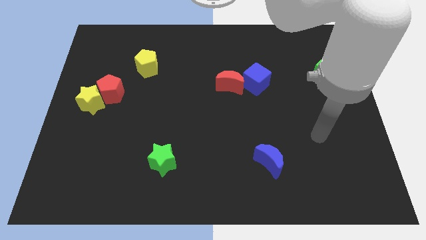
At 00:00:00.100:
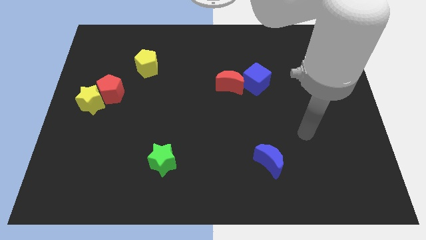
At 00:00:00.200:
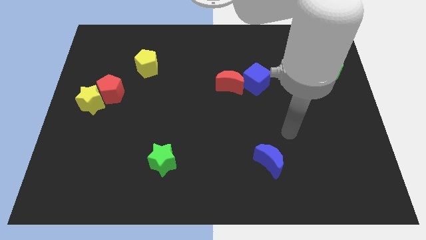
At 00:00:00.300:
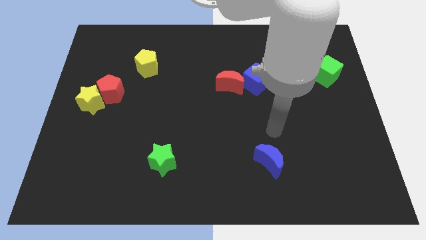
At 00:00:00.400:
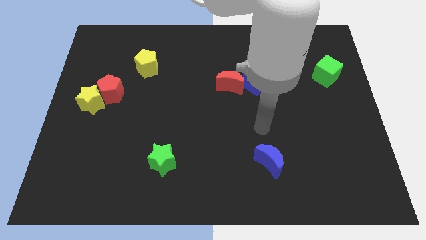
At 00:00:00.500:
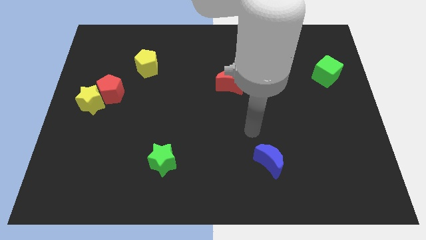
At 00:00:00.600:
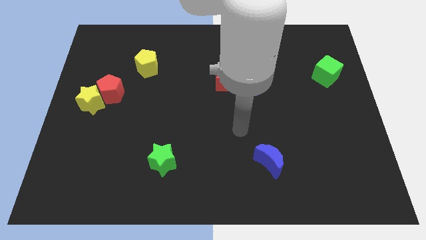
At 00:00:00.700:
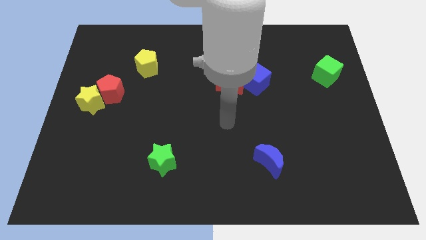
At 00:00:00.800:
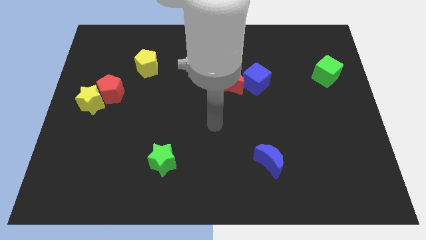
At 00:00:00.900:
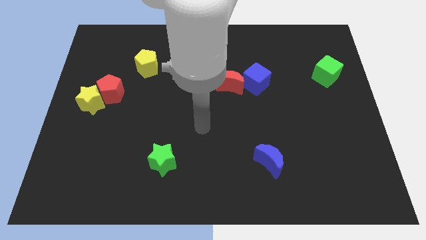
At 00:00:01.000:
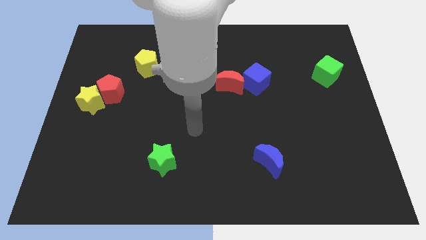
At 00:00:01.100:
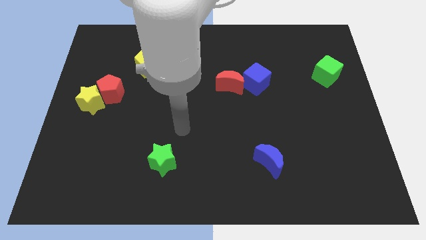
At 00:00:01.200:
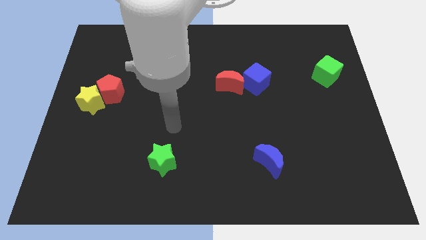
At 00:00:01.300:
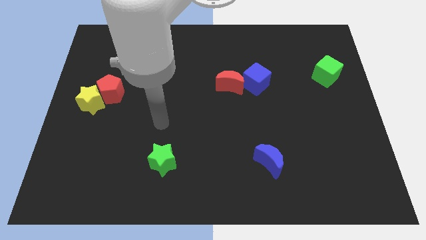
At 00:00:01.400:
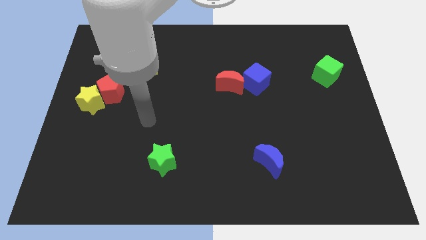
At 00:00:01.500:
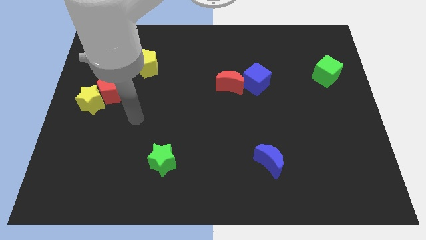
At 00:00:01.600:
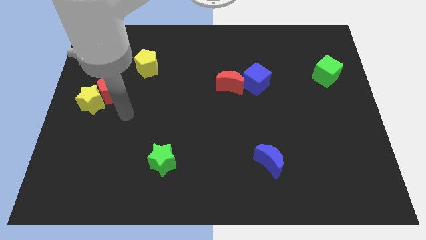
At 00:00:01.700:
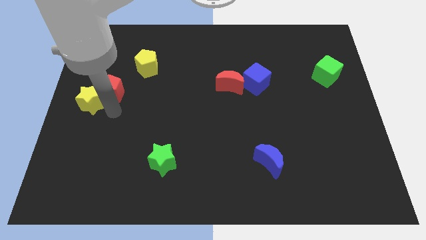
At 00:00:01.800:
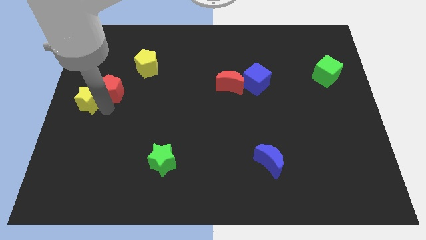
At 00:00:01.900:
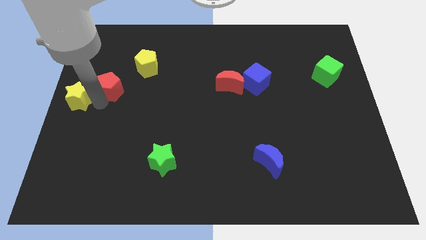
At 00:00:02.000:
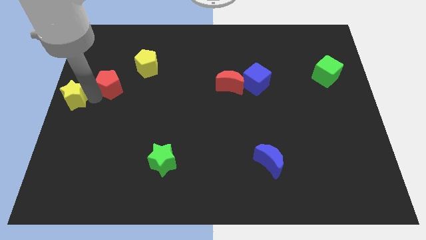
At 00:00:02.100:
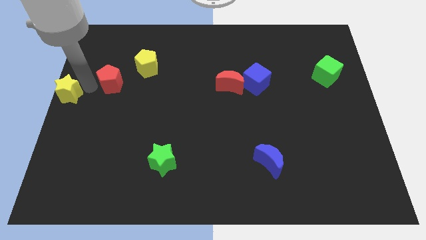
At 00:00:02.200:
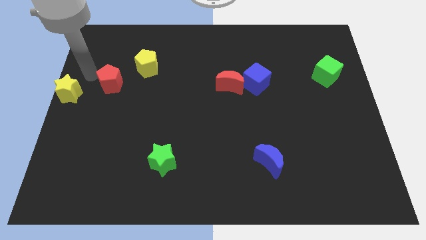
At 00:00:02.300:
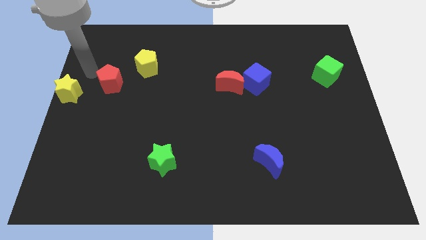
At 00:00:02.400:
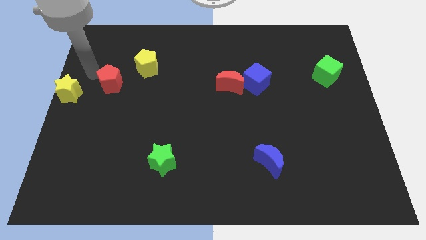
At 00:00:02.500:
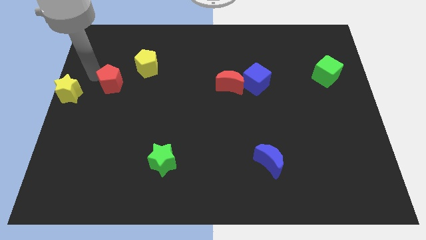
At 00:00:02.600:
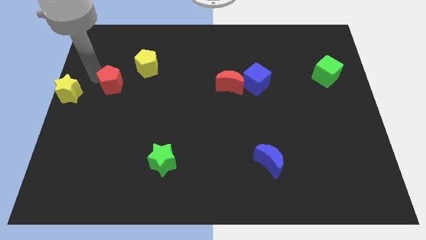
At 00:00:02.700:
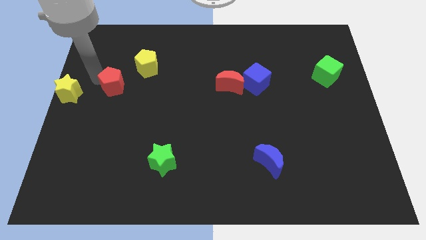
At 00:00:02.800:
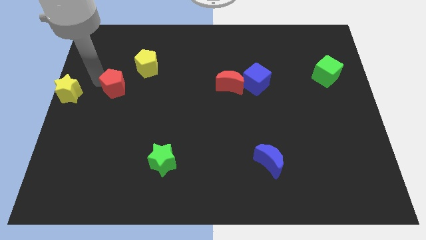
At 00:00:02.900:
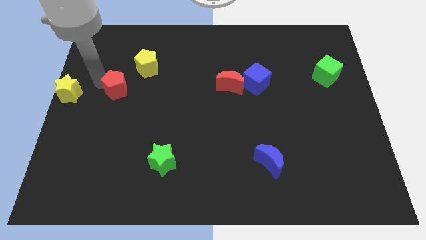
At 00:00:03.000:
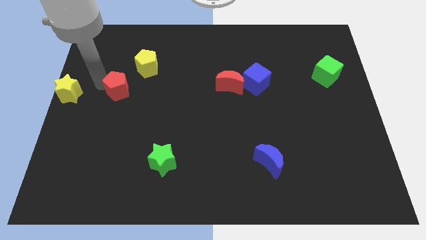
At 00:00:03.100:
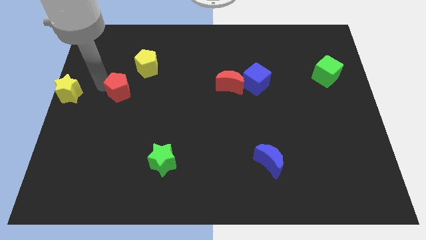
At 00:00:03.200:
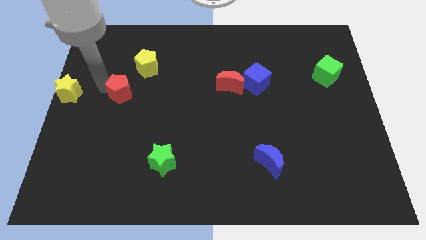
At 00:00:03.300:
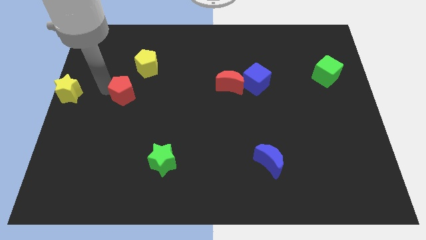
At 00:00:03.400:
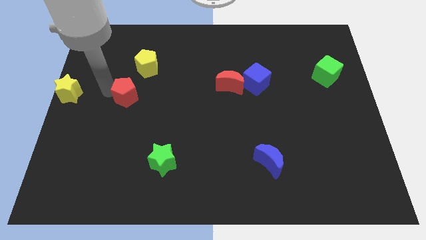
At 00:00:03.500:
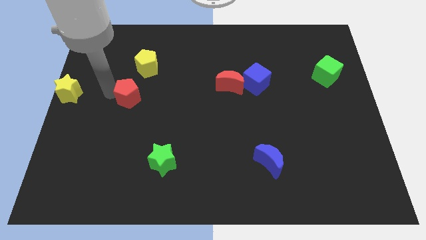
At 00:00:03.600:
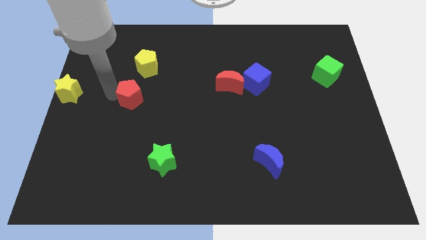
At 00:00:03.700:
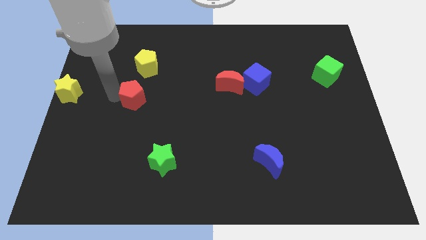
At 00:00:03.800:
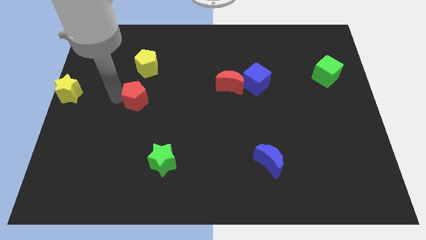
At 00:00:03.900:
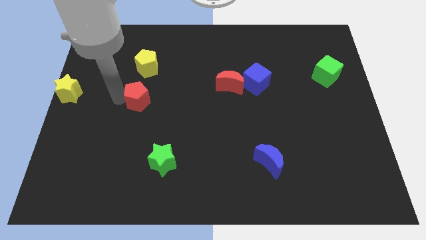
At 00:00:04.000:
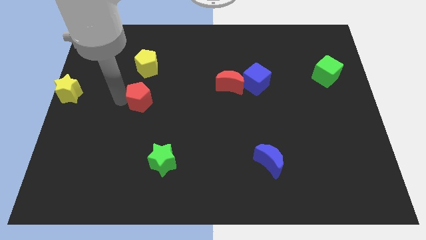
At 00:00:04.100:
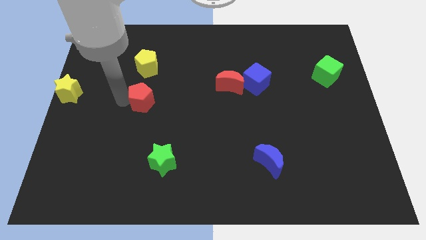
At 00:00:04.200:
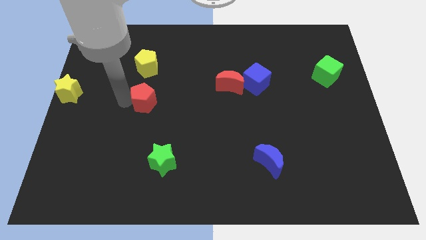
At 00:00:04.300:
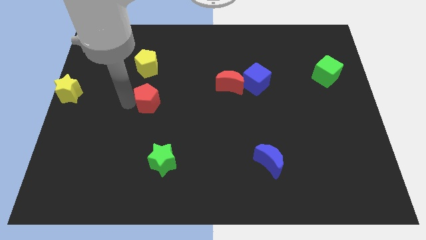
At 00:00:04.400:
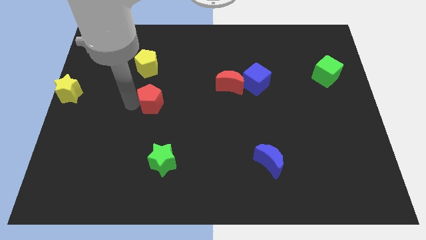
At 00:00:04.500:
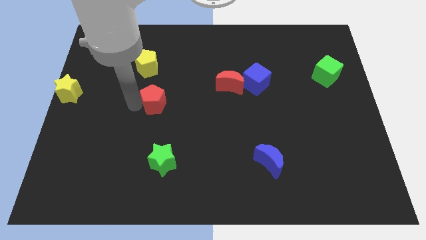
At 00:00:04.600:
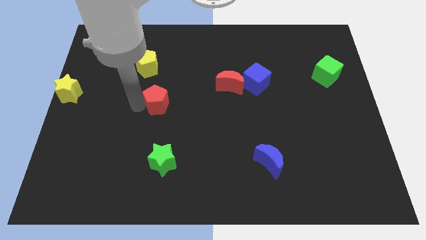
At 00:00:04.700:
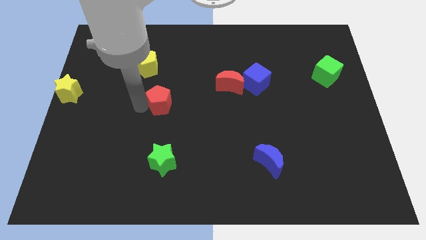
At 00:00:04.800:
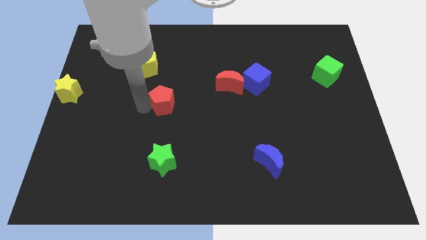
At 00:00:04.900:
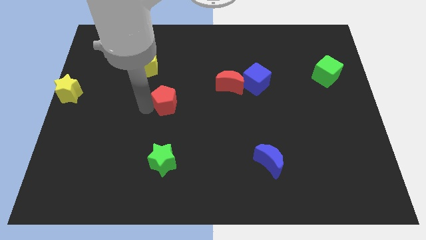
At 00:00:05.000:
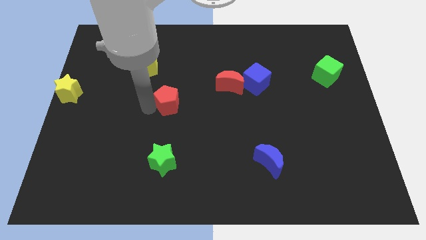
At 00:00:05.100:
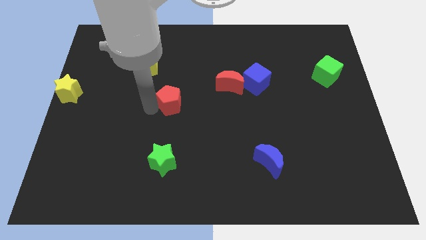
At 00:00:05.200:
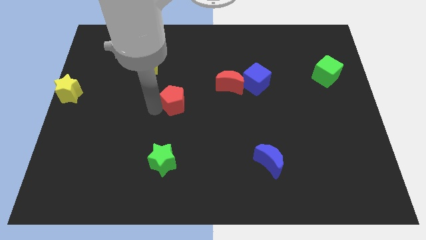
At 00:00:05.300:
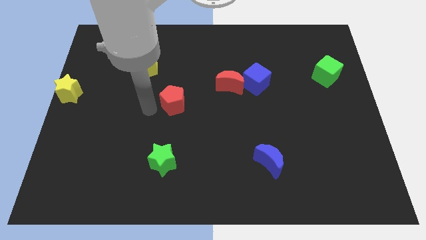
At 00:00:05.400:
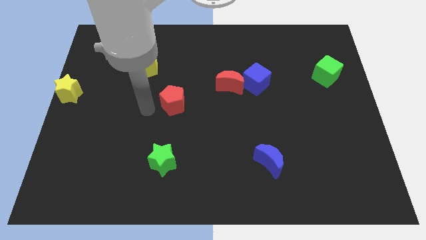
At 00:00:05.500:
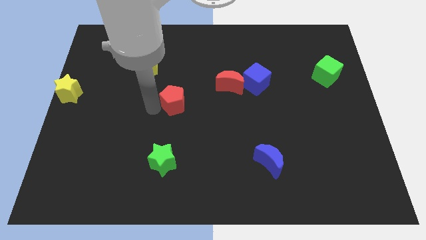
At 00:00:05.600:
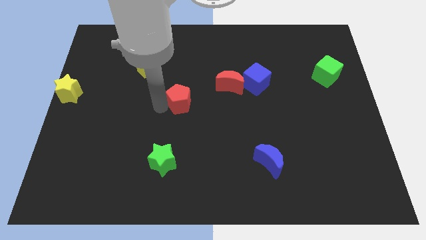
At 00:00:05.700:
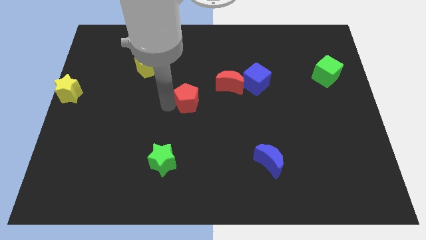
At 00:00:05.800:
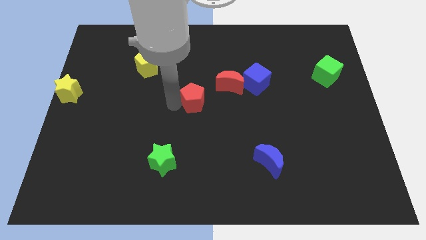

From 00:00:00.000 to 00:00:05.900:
slide the red pentagon to the right

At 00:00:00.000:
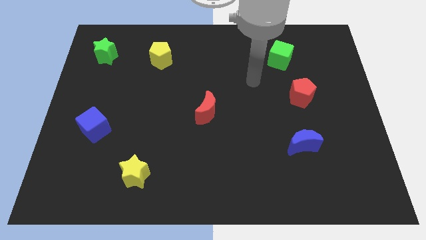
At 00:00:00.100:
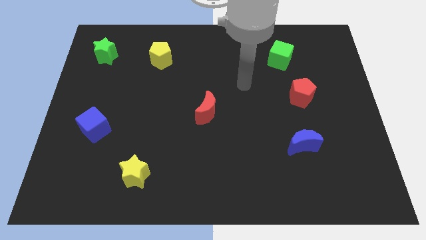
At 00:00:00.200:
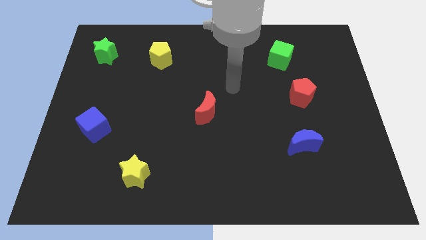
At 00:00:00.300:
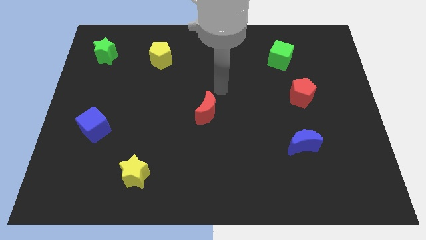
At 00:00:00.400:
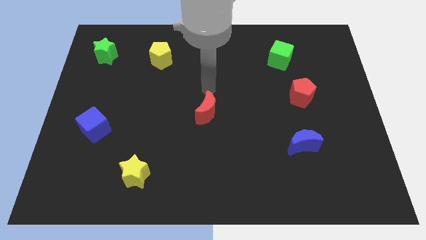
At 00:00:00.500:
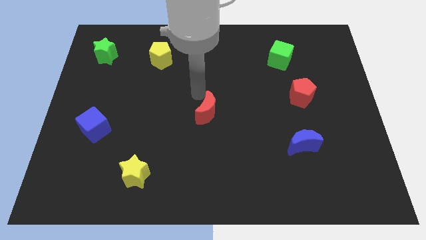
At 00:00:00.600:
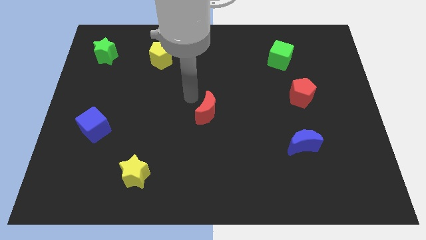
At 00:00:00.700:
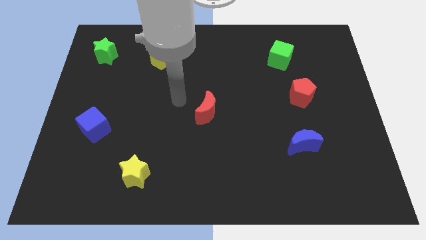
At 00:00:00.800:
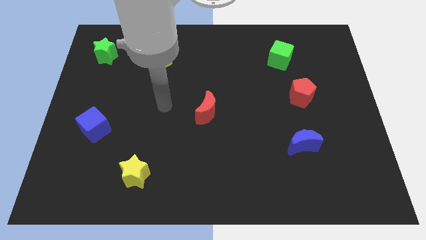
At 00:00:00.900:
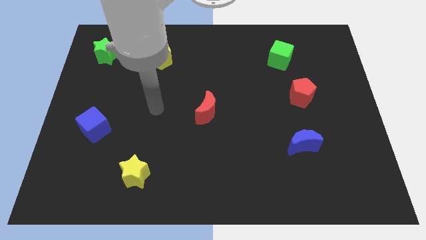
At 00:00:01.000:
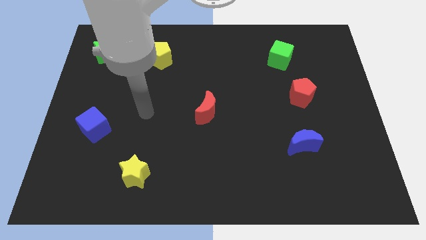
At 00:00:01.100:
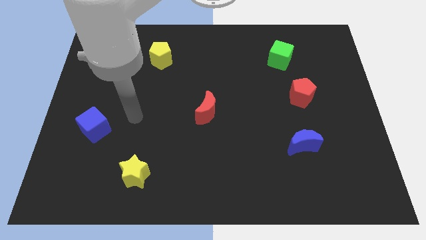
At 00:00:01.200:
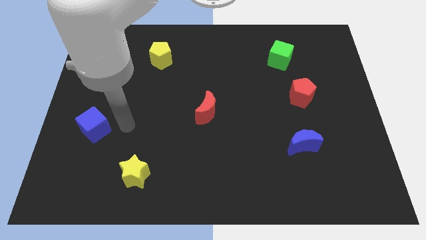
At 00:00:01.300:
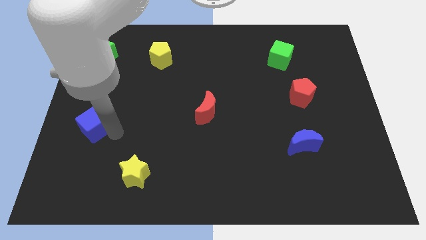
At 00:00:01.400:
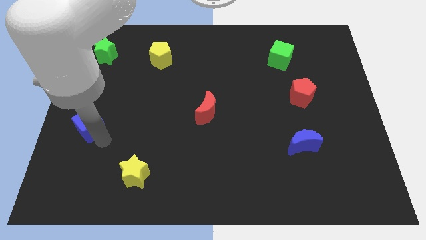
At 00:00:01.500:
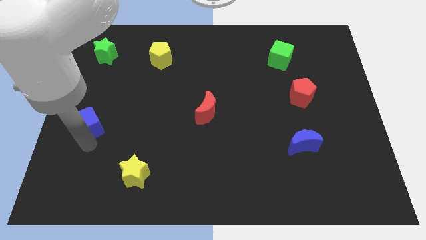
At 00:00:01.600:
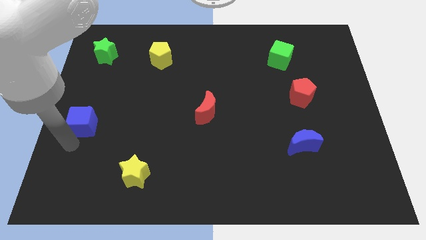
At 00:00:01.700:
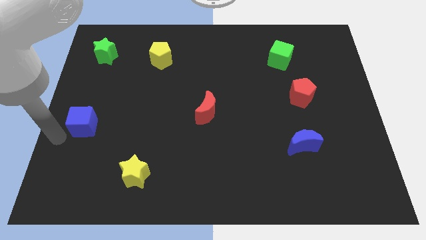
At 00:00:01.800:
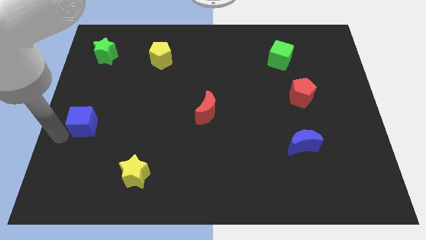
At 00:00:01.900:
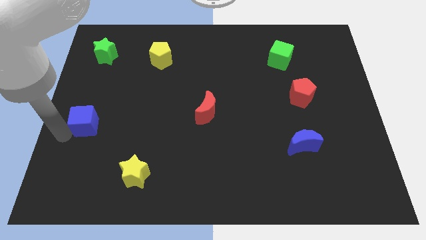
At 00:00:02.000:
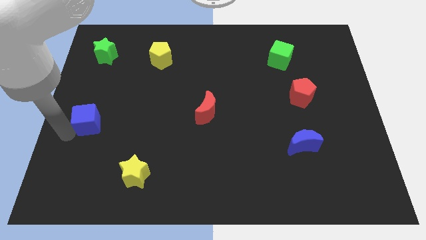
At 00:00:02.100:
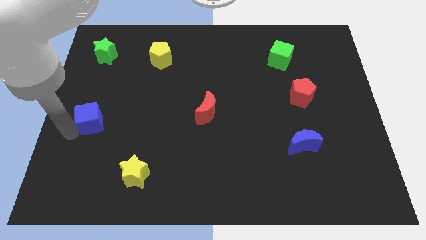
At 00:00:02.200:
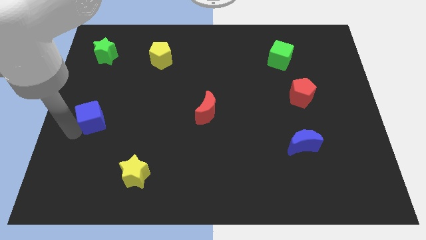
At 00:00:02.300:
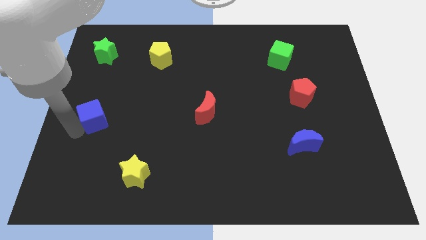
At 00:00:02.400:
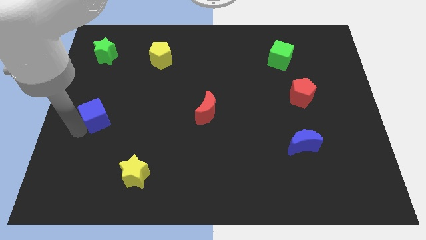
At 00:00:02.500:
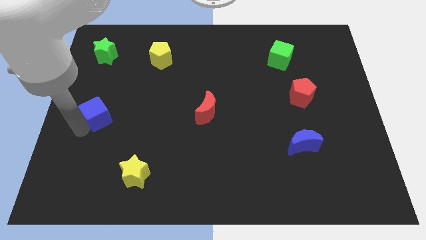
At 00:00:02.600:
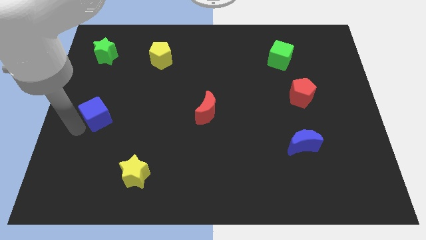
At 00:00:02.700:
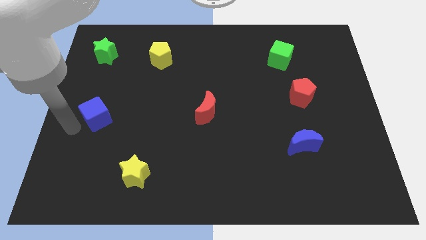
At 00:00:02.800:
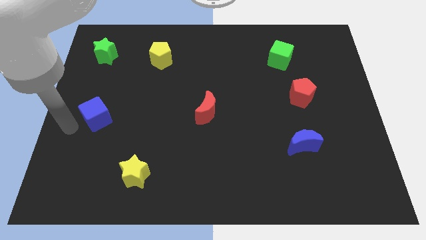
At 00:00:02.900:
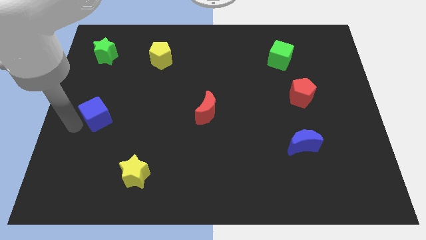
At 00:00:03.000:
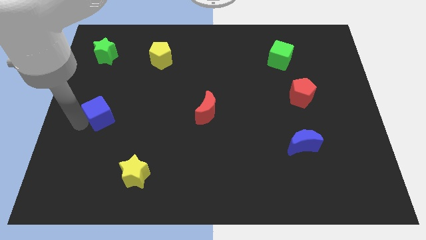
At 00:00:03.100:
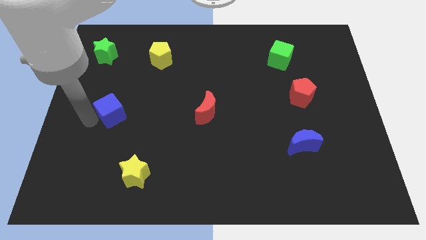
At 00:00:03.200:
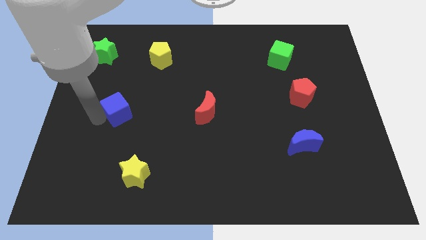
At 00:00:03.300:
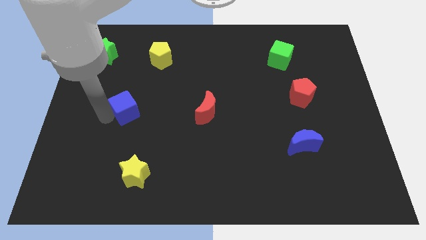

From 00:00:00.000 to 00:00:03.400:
move the blue cube upwards and to the right slightly
